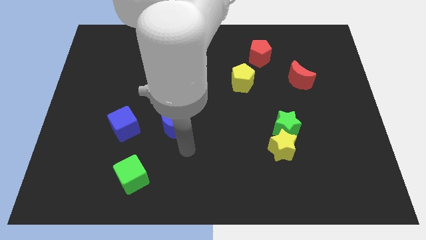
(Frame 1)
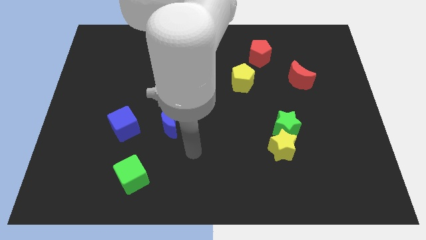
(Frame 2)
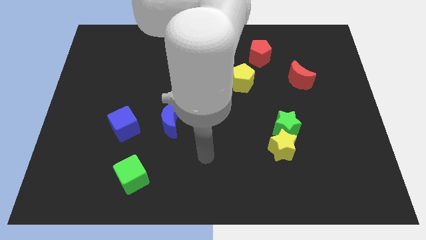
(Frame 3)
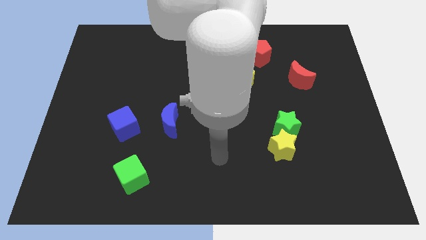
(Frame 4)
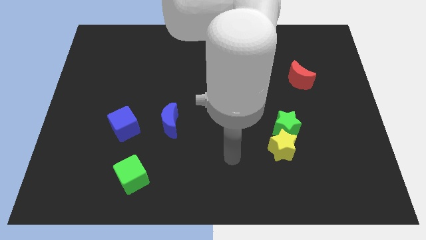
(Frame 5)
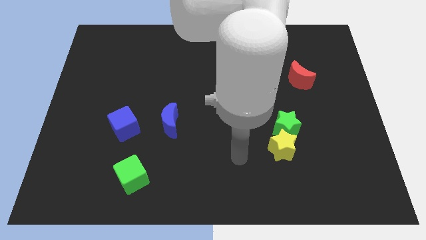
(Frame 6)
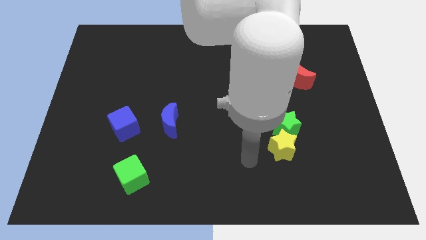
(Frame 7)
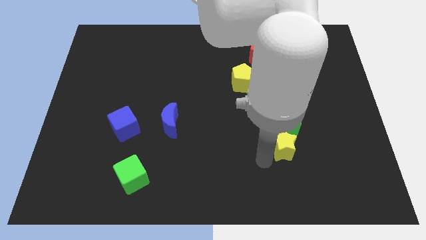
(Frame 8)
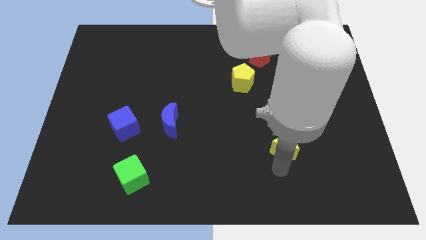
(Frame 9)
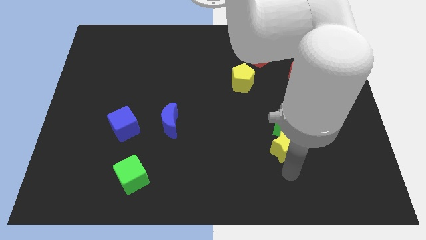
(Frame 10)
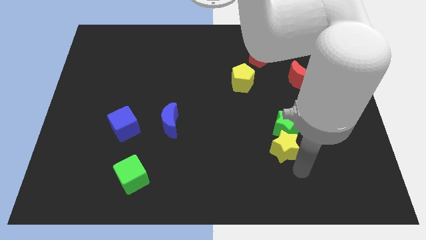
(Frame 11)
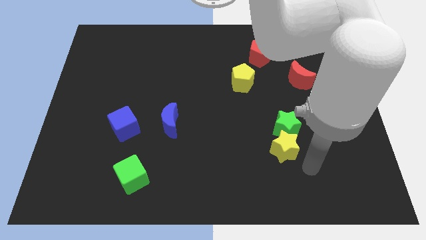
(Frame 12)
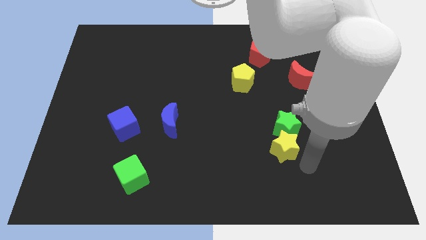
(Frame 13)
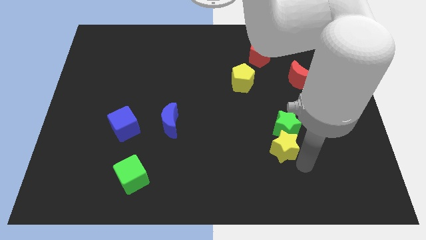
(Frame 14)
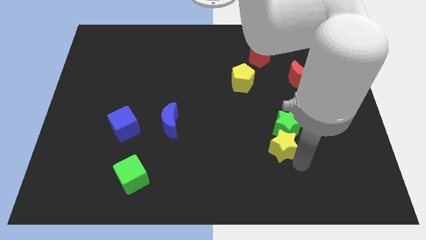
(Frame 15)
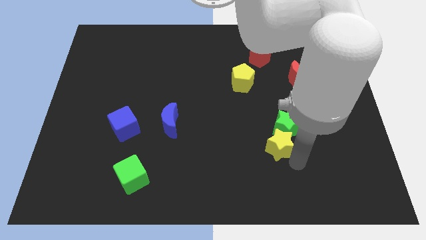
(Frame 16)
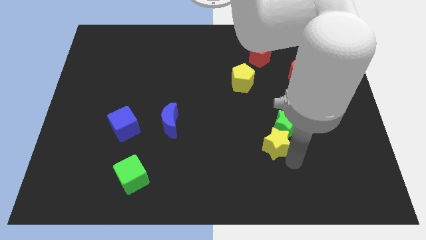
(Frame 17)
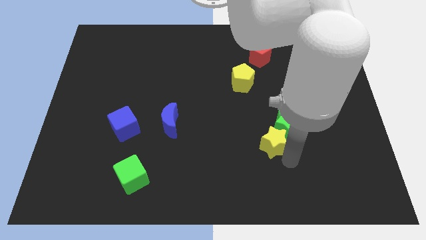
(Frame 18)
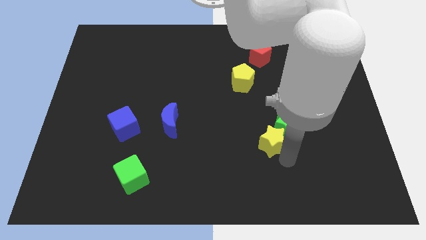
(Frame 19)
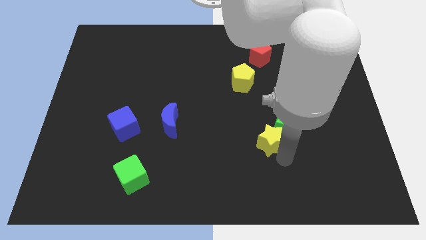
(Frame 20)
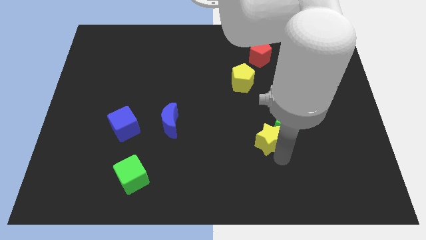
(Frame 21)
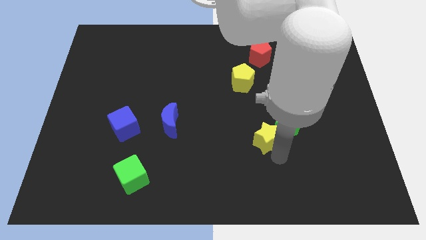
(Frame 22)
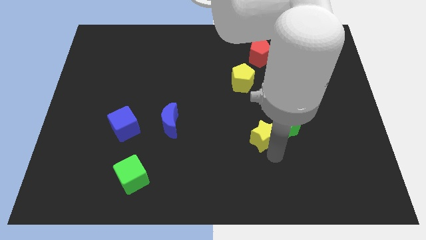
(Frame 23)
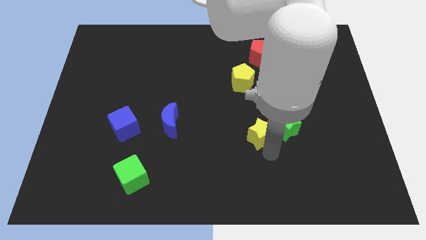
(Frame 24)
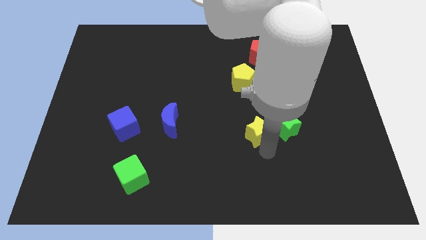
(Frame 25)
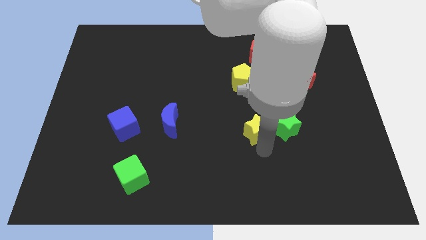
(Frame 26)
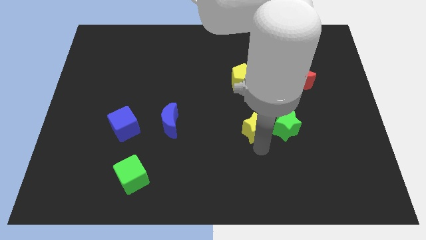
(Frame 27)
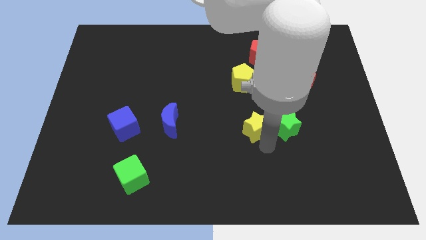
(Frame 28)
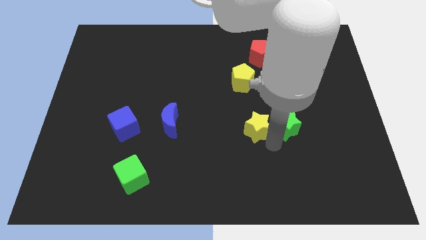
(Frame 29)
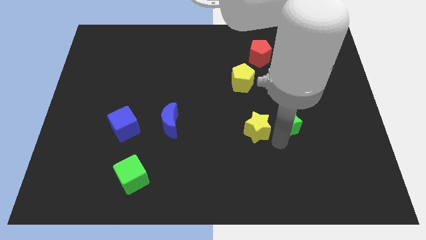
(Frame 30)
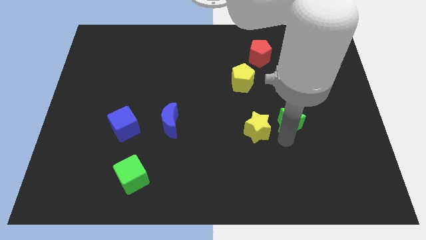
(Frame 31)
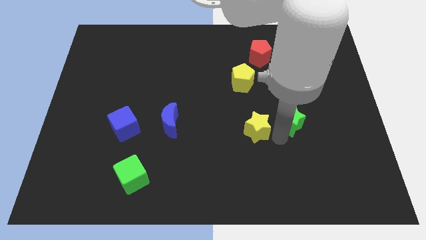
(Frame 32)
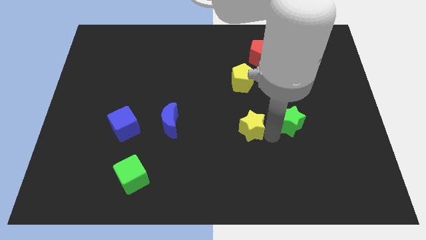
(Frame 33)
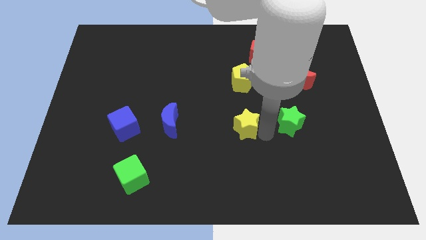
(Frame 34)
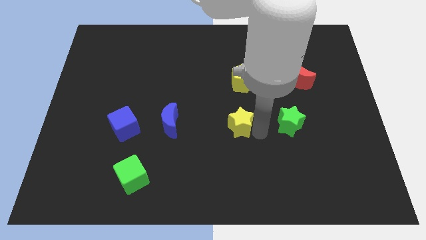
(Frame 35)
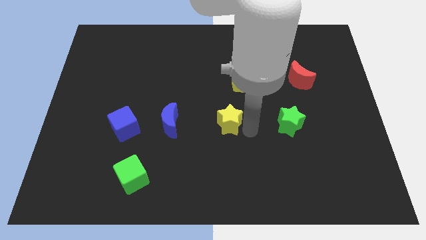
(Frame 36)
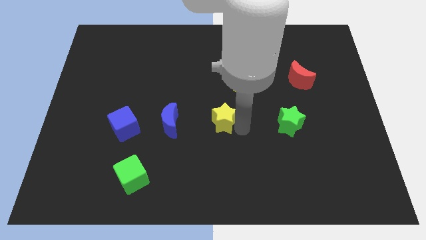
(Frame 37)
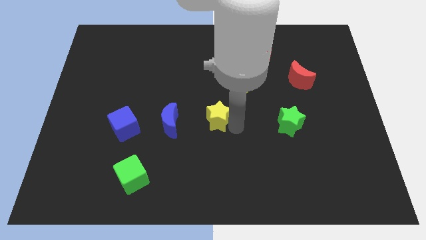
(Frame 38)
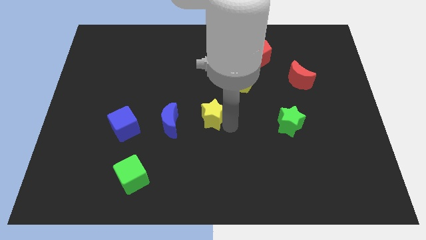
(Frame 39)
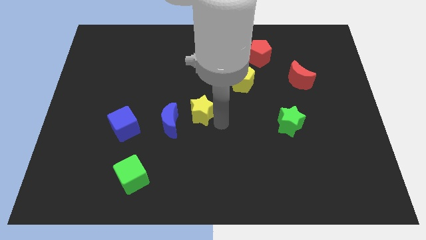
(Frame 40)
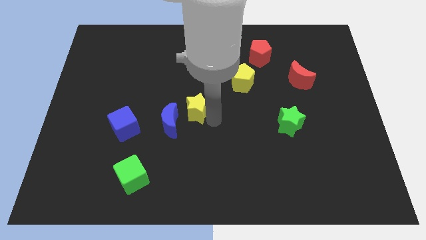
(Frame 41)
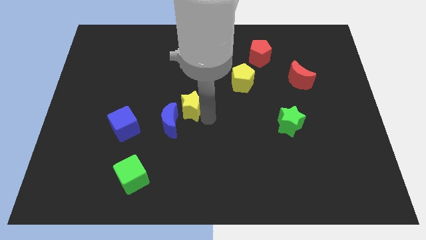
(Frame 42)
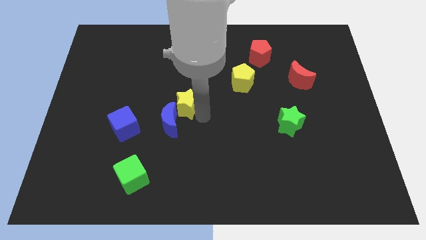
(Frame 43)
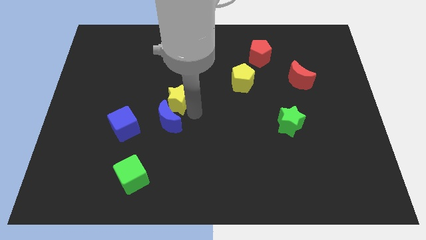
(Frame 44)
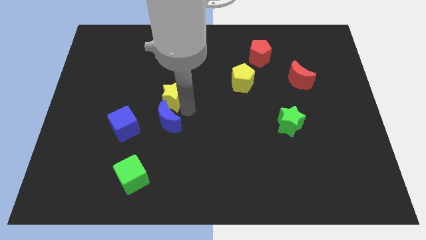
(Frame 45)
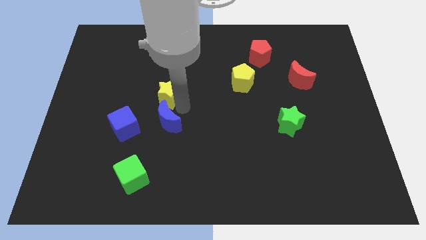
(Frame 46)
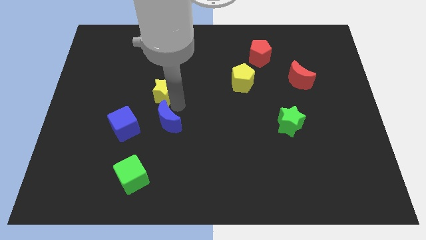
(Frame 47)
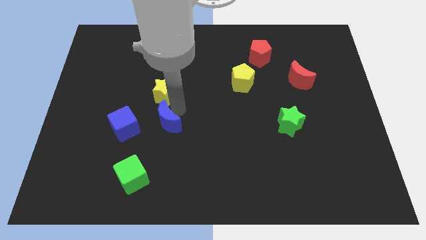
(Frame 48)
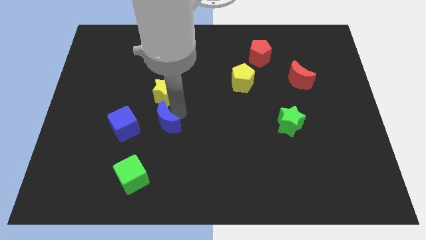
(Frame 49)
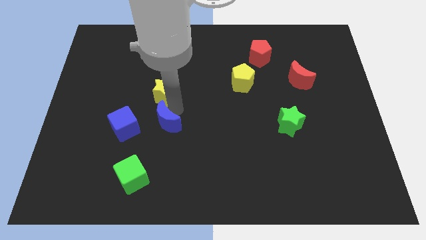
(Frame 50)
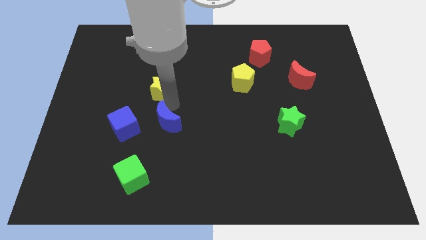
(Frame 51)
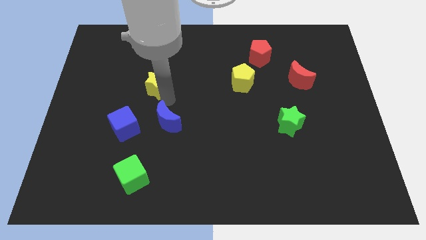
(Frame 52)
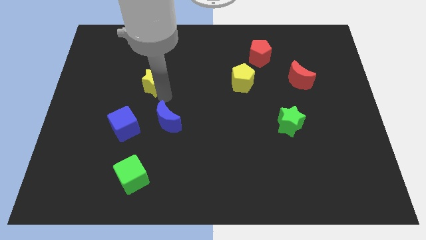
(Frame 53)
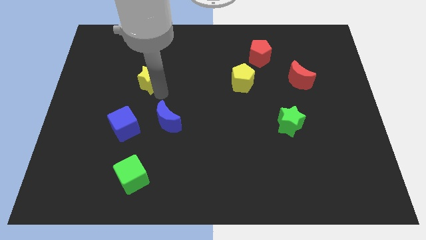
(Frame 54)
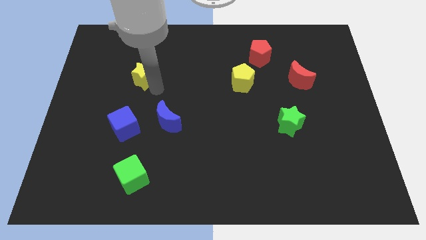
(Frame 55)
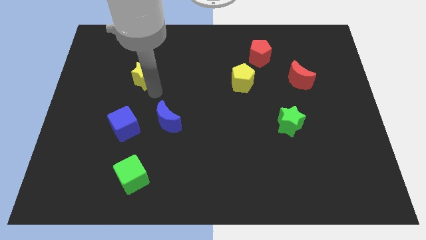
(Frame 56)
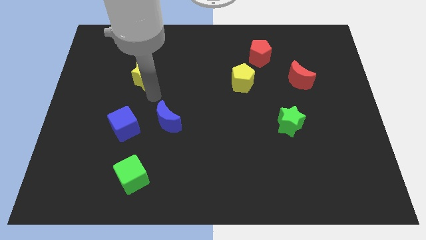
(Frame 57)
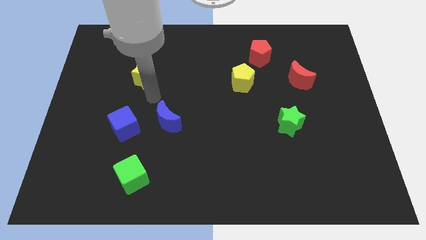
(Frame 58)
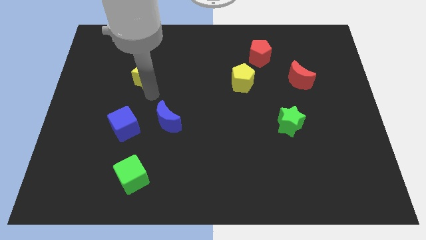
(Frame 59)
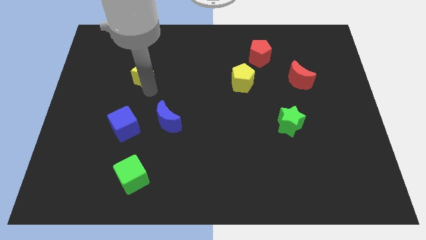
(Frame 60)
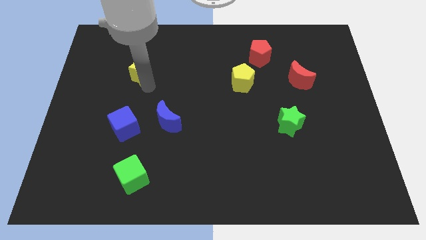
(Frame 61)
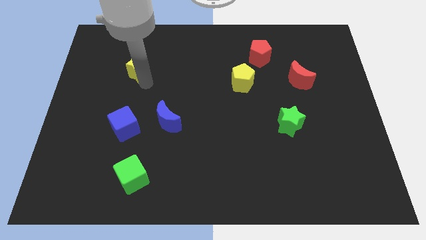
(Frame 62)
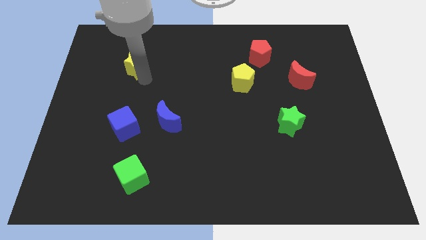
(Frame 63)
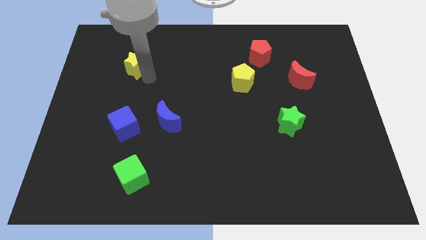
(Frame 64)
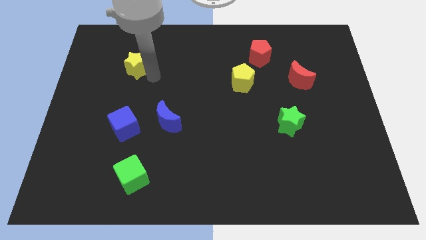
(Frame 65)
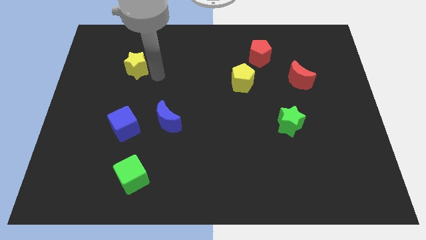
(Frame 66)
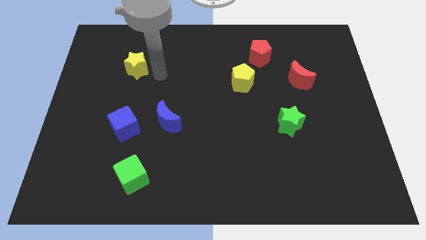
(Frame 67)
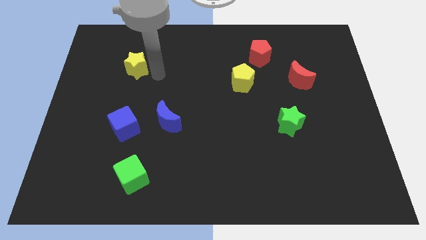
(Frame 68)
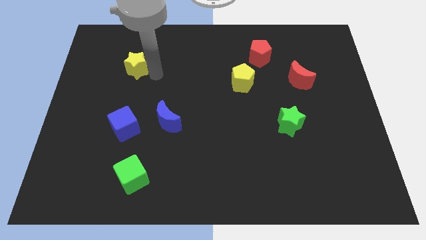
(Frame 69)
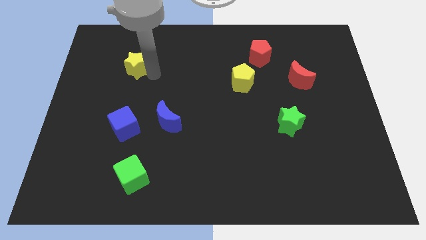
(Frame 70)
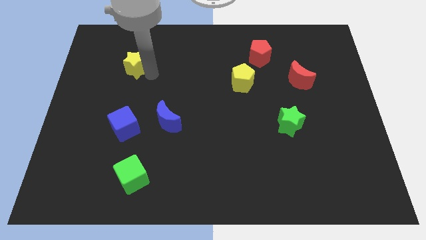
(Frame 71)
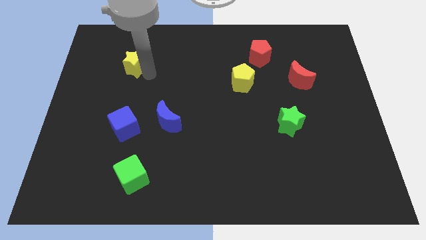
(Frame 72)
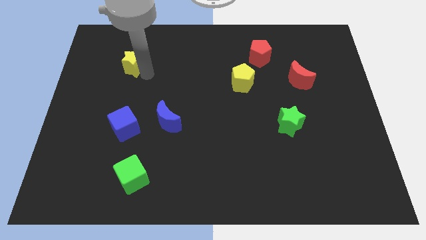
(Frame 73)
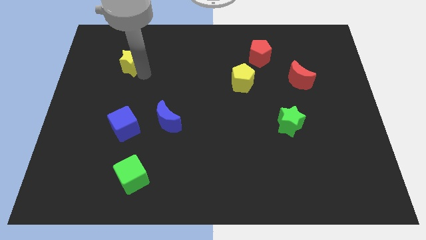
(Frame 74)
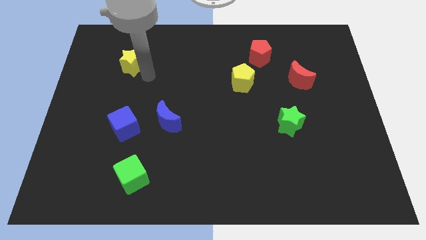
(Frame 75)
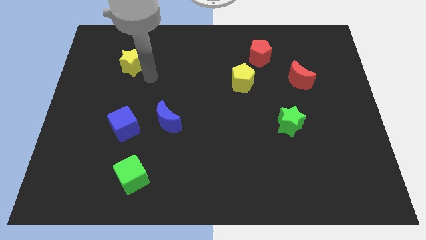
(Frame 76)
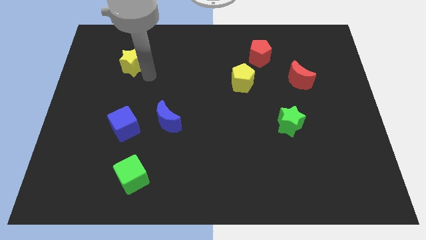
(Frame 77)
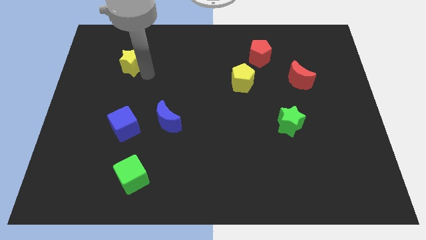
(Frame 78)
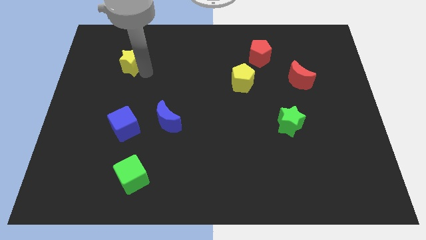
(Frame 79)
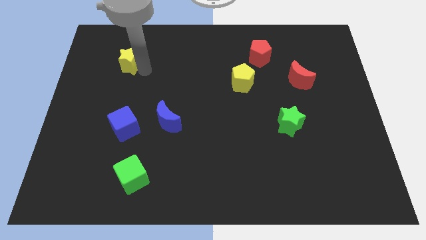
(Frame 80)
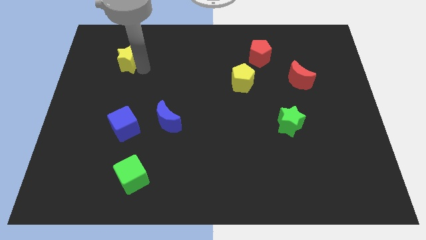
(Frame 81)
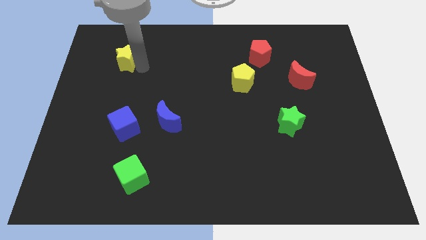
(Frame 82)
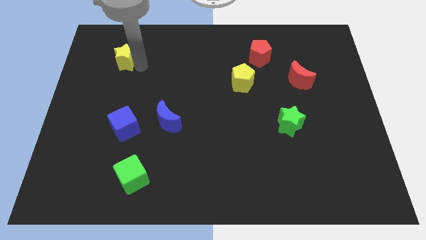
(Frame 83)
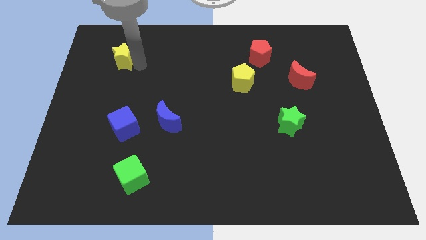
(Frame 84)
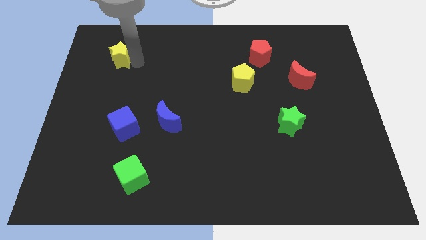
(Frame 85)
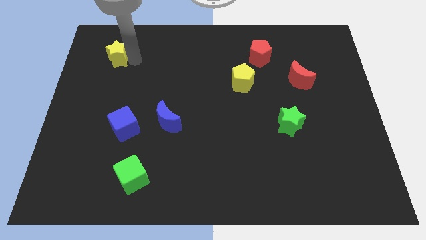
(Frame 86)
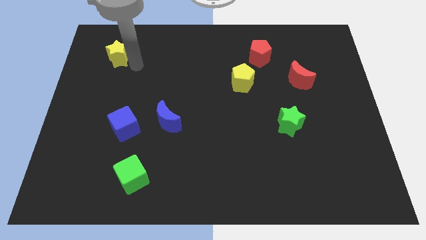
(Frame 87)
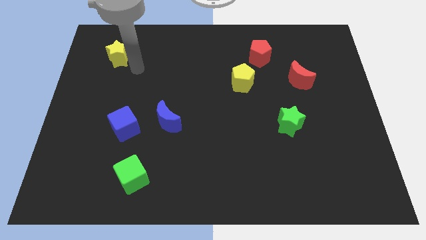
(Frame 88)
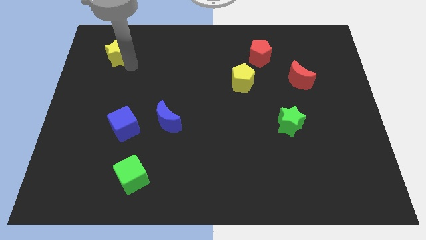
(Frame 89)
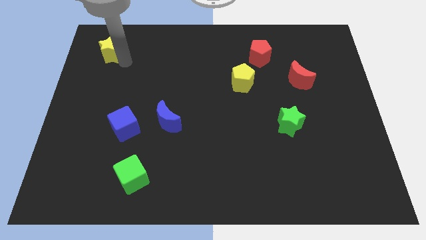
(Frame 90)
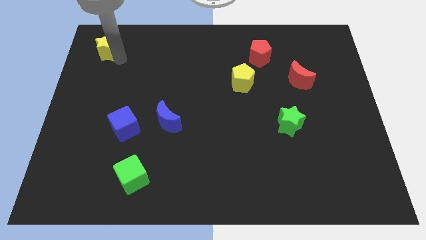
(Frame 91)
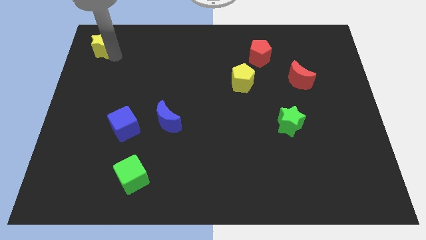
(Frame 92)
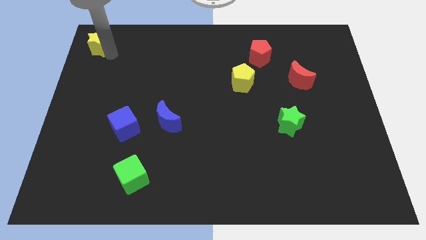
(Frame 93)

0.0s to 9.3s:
push the yellow star to the top left
